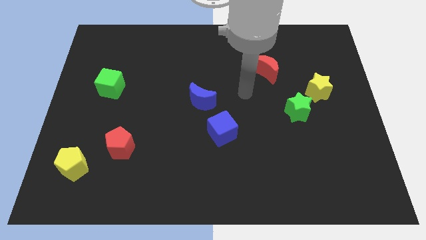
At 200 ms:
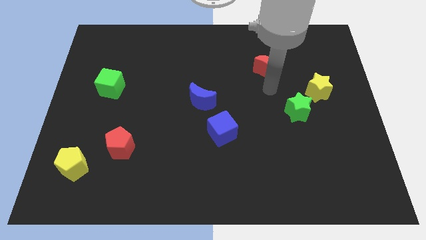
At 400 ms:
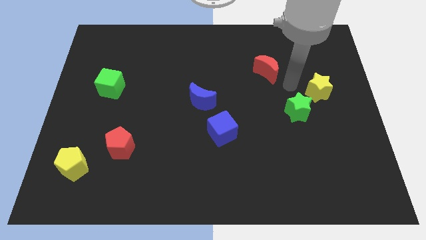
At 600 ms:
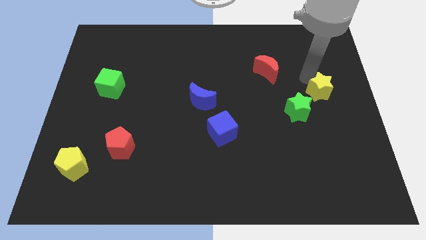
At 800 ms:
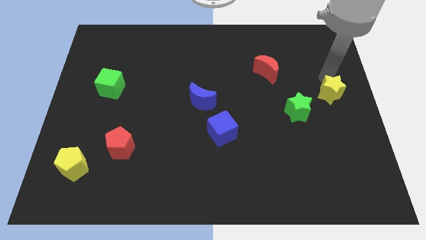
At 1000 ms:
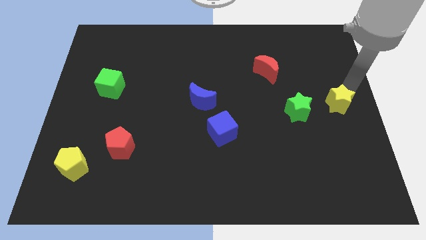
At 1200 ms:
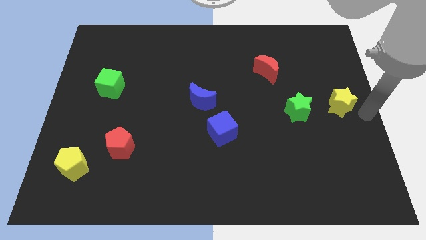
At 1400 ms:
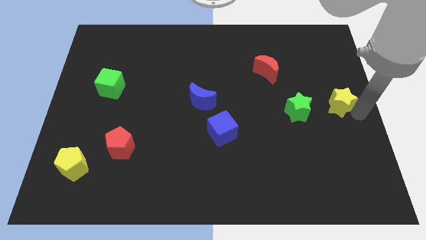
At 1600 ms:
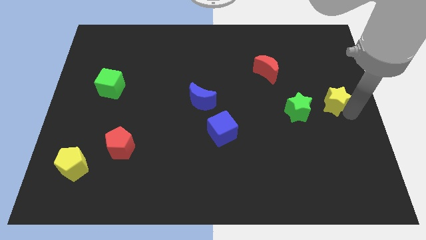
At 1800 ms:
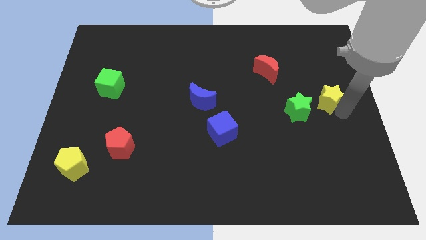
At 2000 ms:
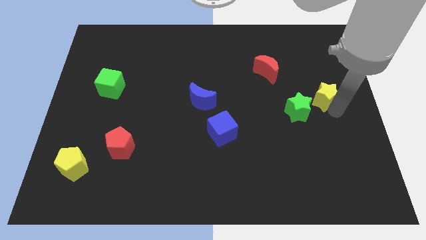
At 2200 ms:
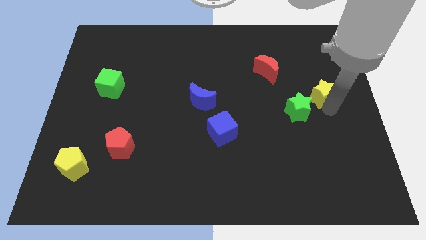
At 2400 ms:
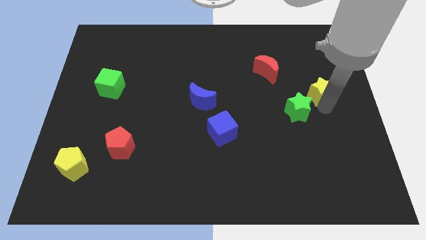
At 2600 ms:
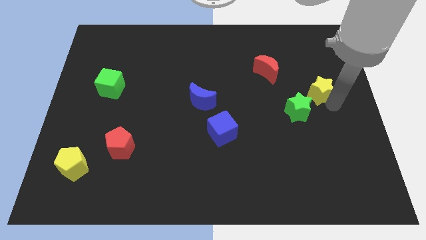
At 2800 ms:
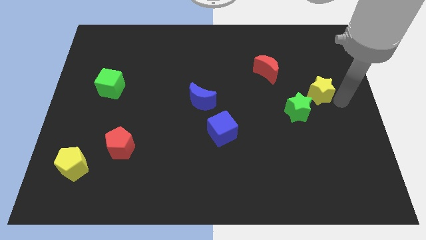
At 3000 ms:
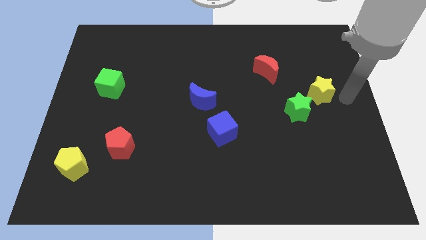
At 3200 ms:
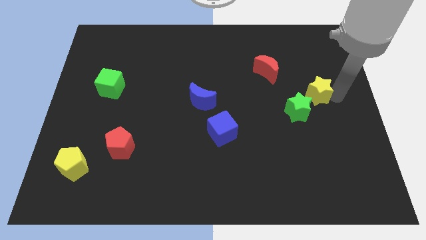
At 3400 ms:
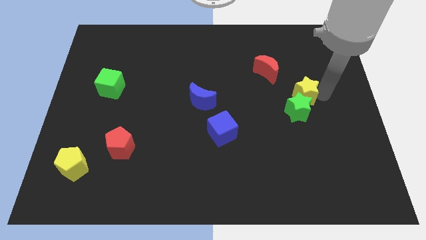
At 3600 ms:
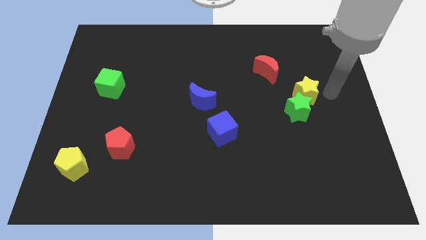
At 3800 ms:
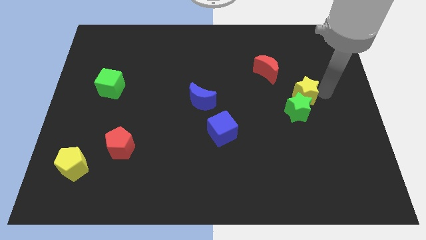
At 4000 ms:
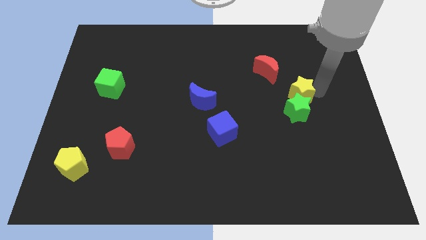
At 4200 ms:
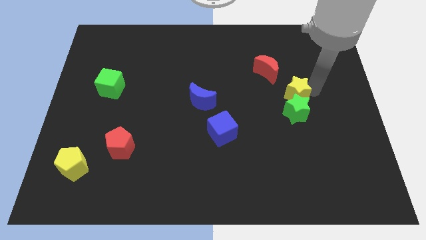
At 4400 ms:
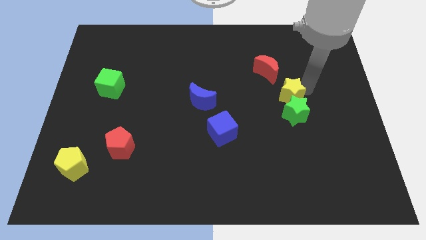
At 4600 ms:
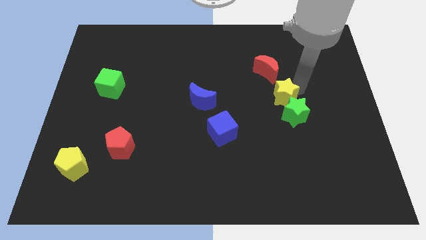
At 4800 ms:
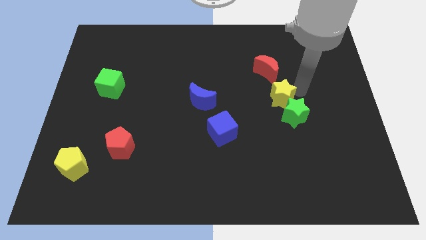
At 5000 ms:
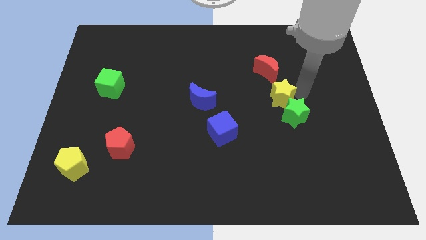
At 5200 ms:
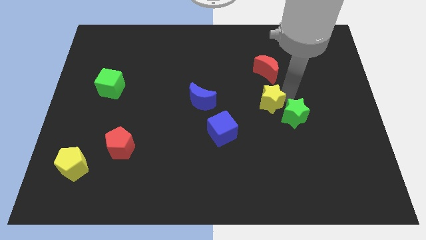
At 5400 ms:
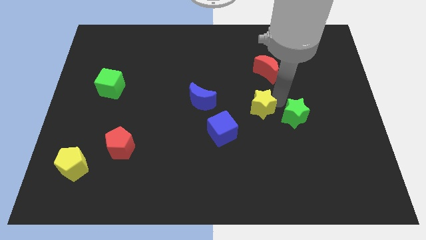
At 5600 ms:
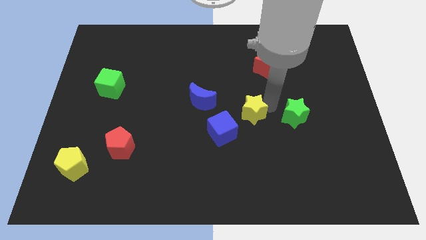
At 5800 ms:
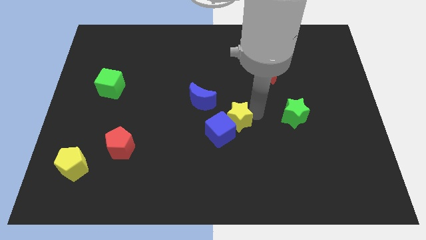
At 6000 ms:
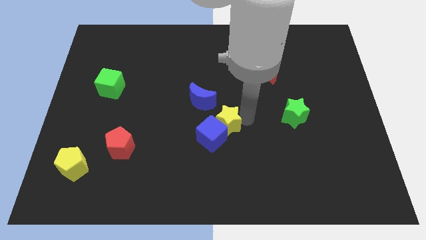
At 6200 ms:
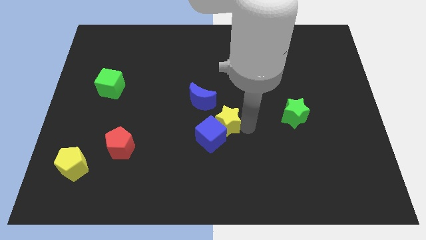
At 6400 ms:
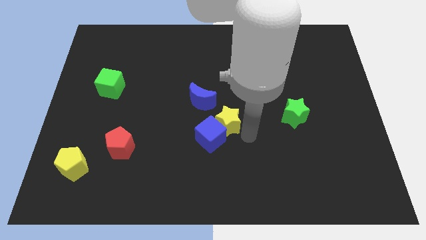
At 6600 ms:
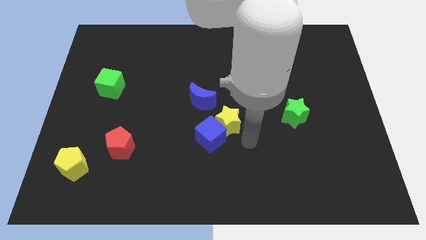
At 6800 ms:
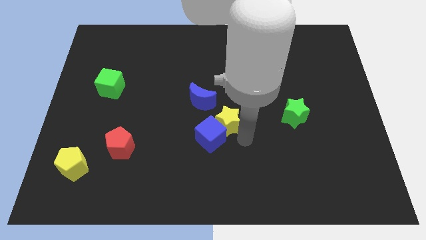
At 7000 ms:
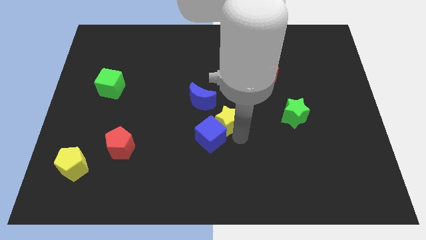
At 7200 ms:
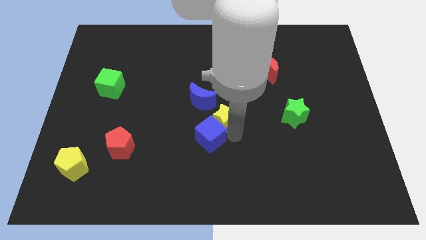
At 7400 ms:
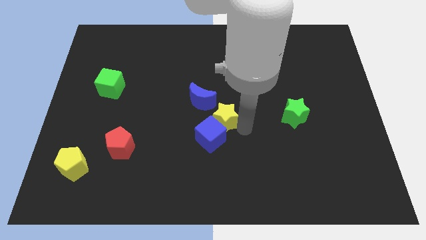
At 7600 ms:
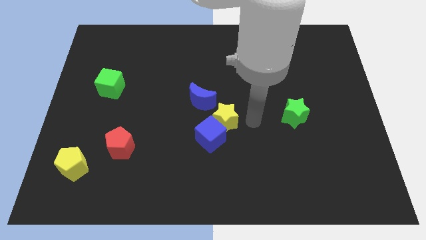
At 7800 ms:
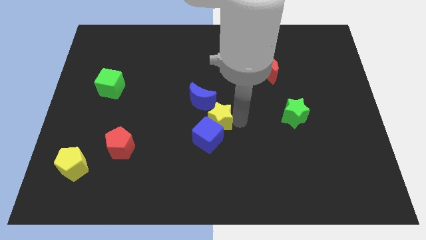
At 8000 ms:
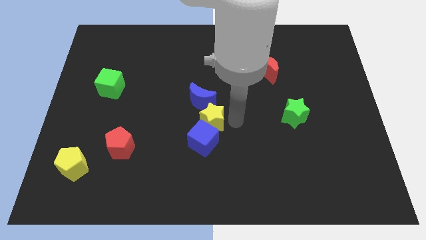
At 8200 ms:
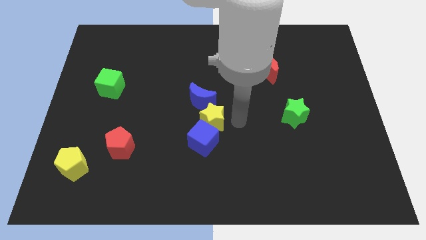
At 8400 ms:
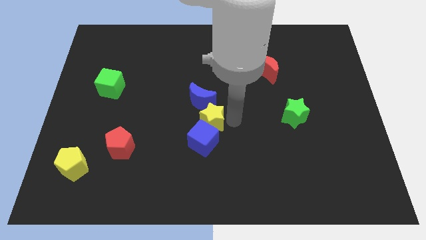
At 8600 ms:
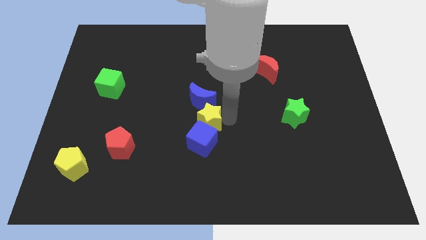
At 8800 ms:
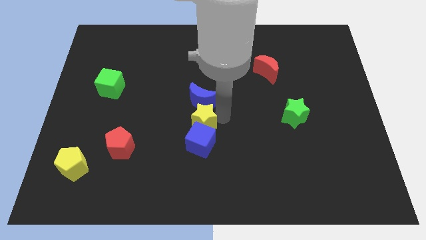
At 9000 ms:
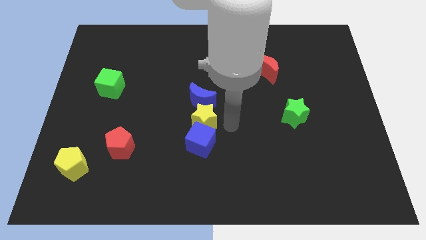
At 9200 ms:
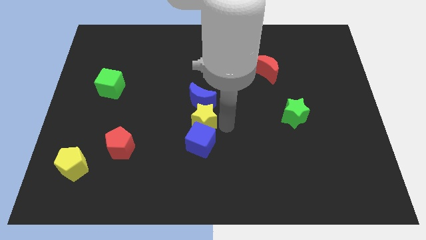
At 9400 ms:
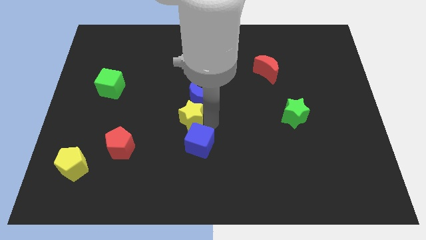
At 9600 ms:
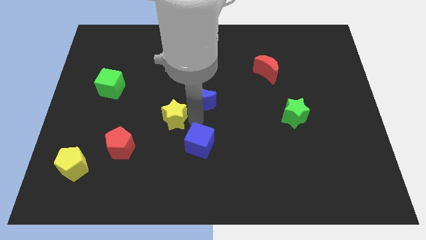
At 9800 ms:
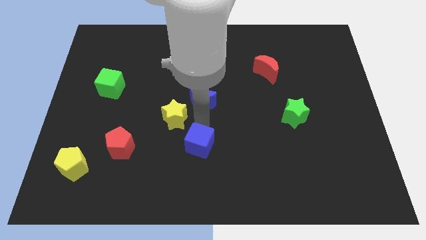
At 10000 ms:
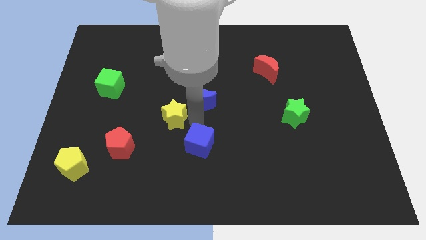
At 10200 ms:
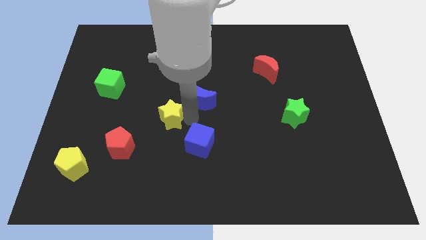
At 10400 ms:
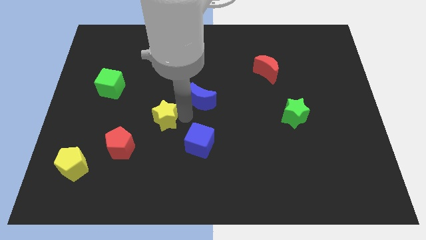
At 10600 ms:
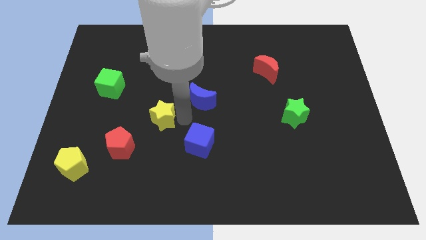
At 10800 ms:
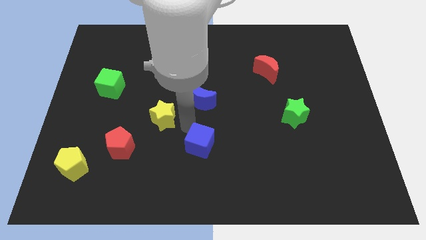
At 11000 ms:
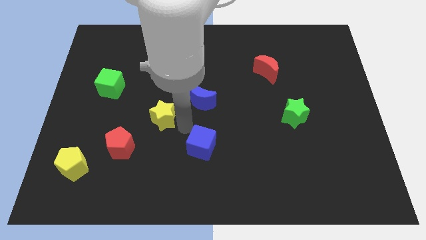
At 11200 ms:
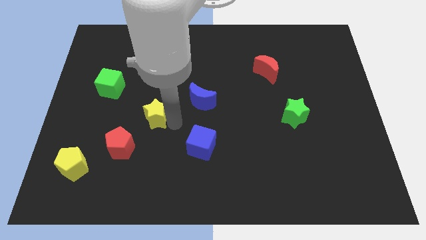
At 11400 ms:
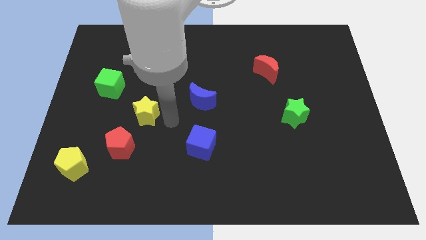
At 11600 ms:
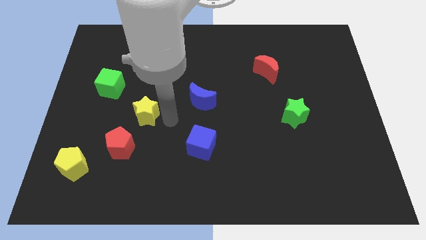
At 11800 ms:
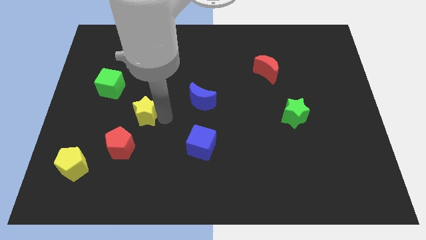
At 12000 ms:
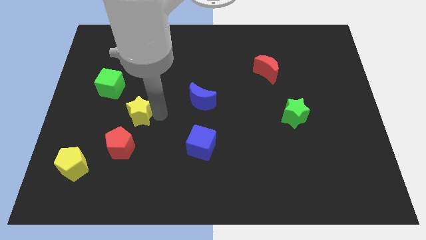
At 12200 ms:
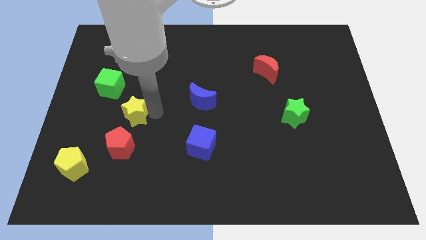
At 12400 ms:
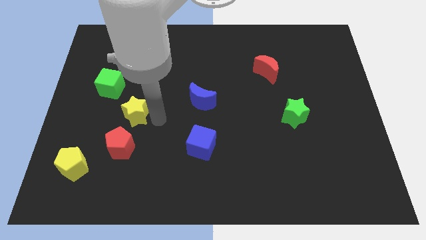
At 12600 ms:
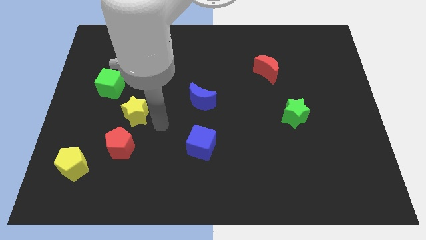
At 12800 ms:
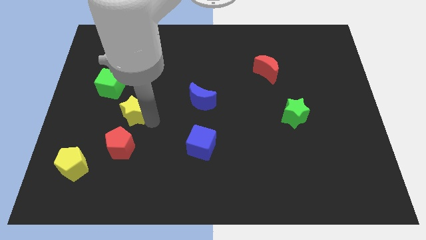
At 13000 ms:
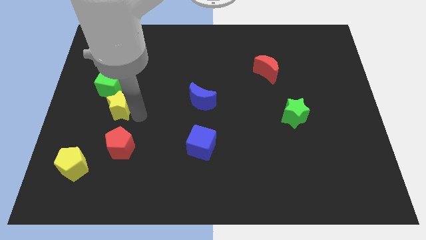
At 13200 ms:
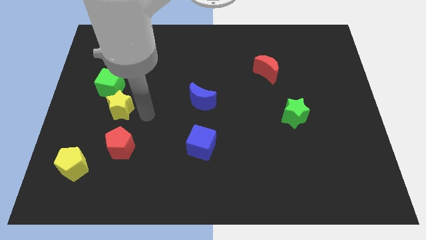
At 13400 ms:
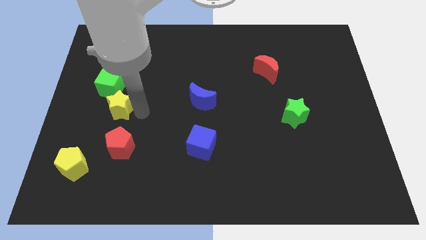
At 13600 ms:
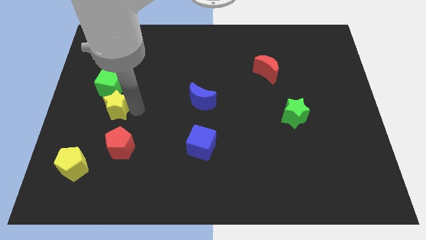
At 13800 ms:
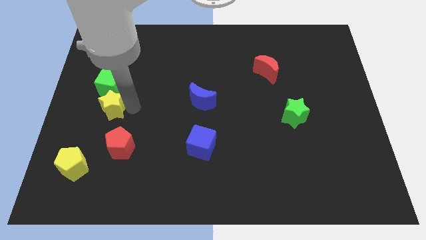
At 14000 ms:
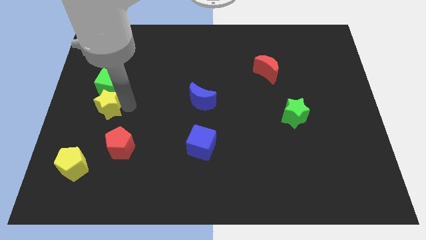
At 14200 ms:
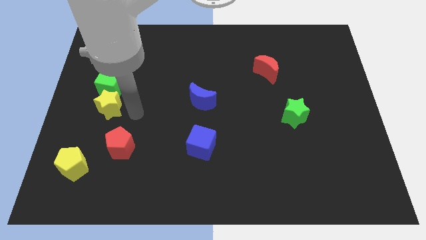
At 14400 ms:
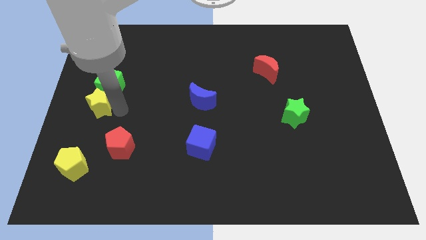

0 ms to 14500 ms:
move the yellow star to the left side
